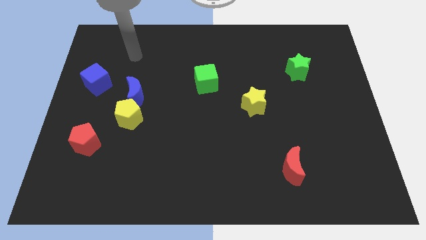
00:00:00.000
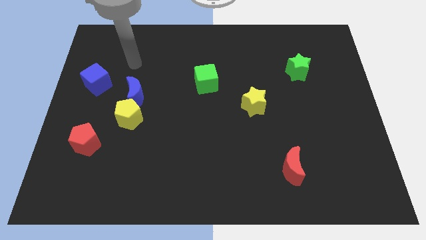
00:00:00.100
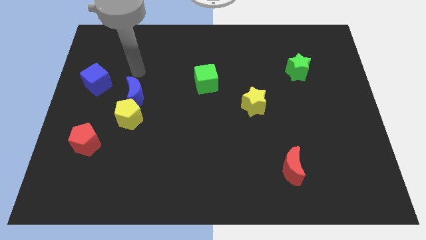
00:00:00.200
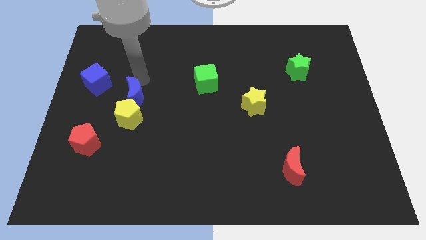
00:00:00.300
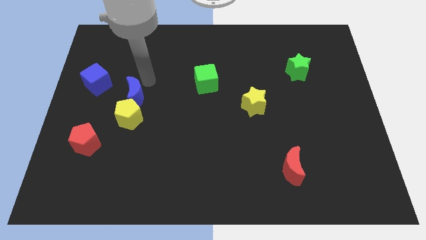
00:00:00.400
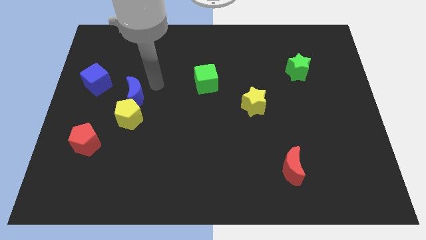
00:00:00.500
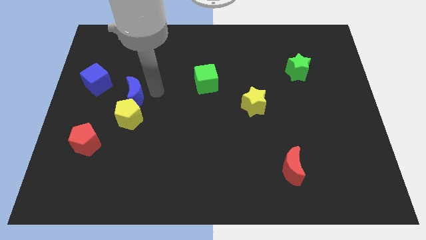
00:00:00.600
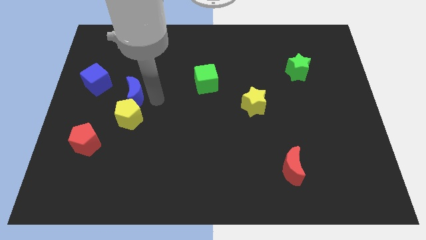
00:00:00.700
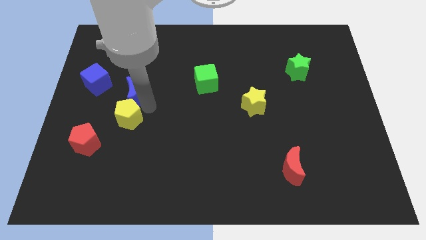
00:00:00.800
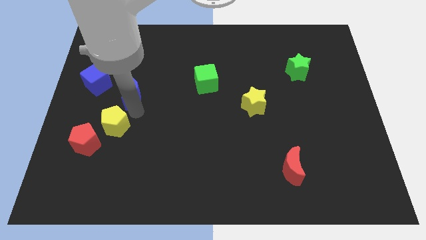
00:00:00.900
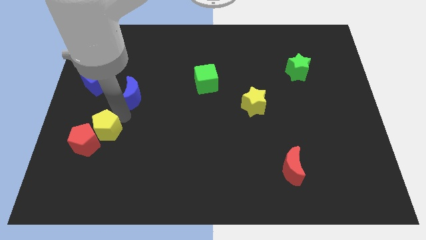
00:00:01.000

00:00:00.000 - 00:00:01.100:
pull the blue moon apart from the yellow pentagon

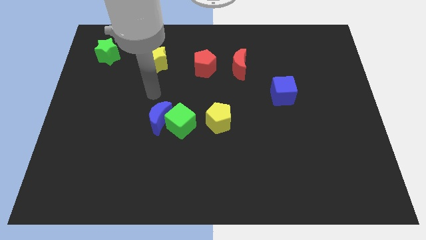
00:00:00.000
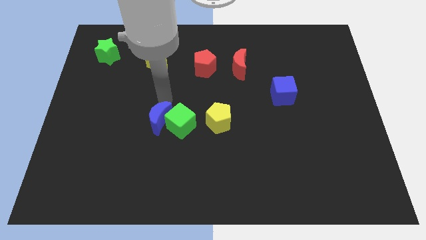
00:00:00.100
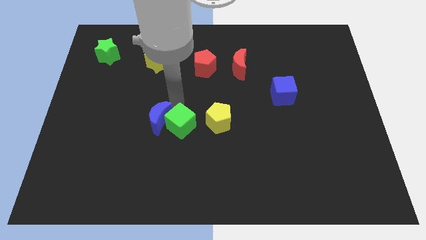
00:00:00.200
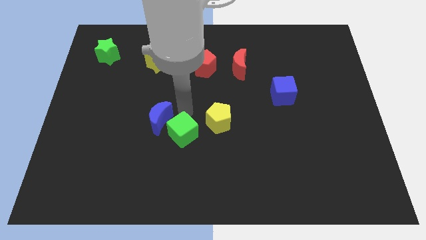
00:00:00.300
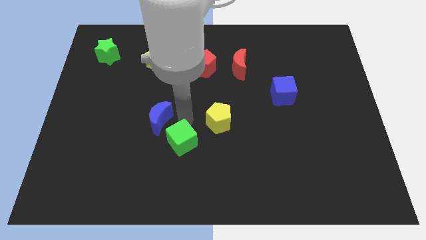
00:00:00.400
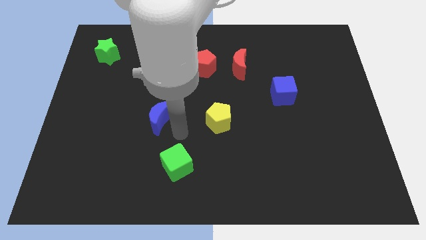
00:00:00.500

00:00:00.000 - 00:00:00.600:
pull the blue moon apart from the green cube

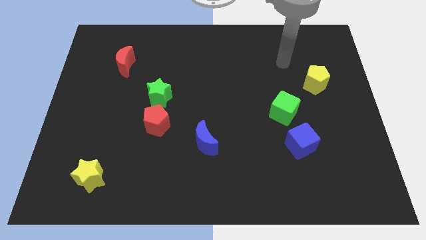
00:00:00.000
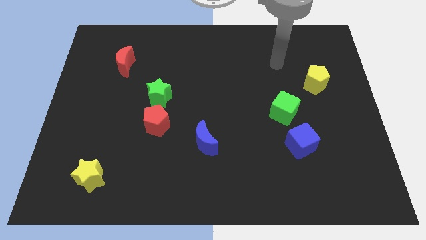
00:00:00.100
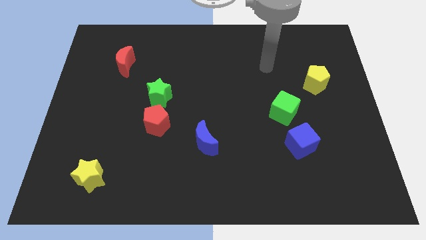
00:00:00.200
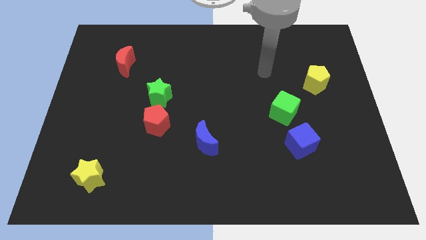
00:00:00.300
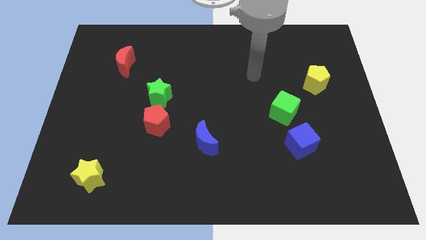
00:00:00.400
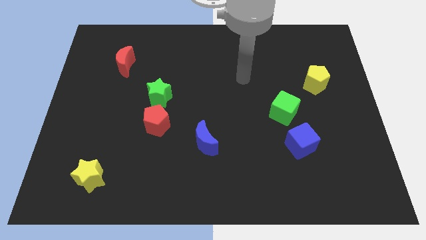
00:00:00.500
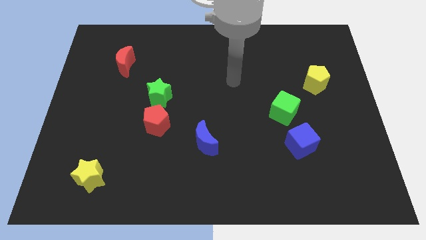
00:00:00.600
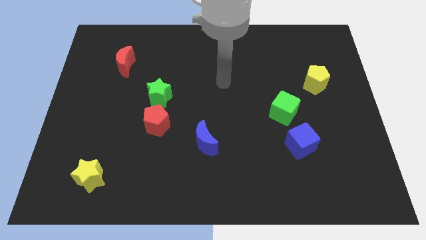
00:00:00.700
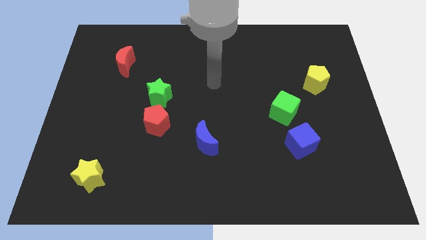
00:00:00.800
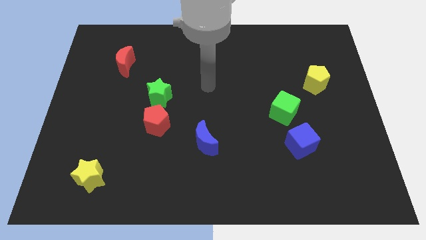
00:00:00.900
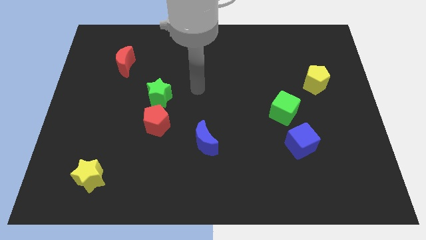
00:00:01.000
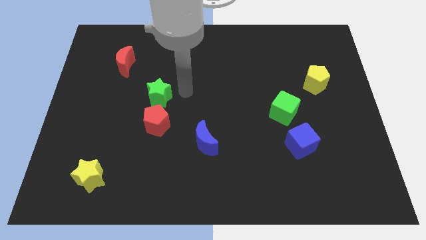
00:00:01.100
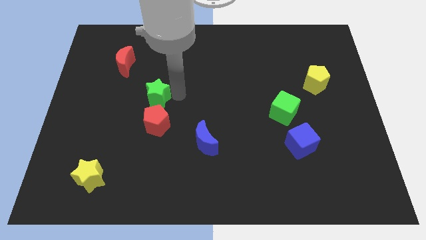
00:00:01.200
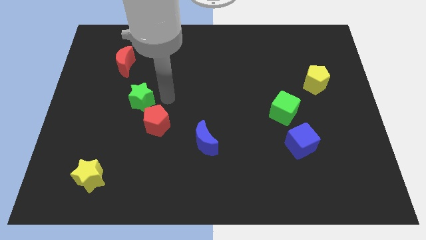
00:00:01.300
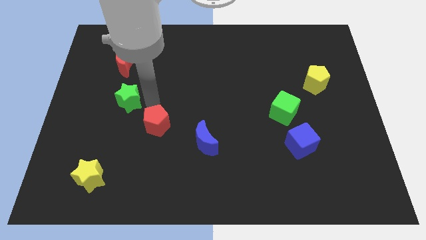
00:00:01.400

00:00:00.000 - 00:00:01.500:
move the red pentagon away from the green star

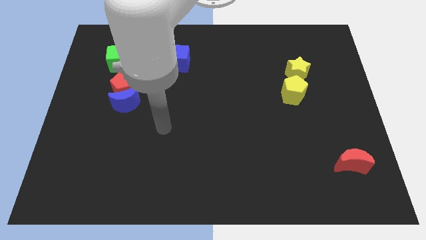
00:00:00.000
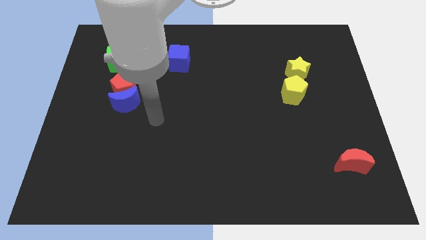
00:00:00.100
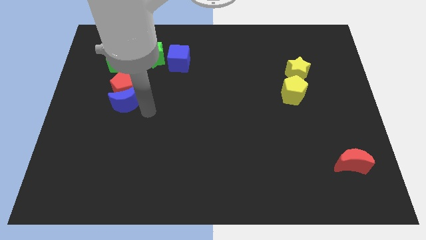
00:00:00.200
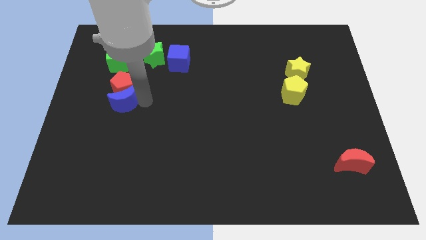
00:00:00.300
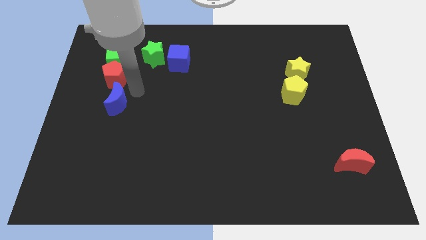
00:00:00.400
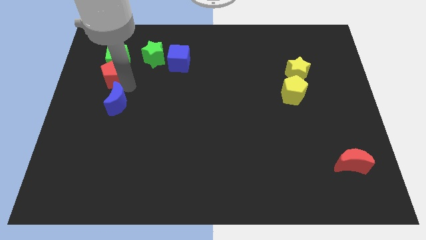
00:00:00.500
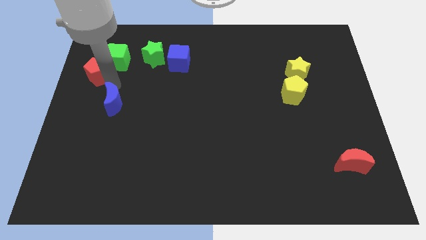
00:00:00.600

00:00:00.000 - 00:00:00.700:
move the blue moon away from the red pentagon

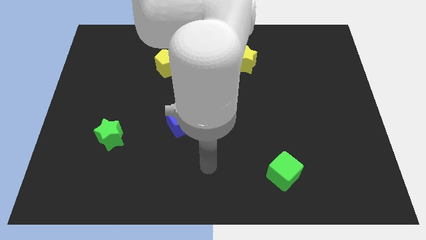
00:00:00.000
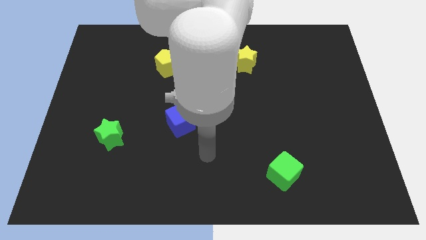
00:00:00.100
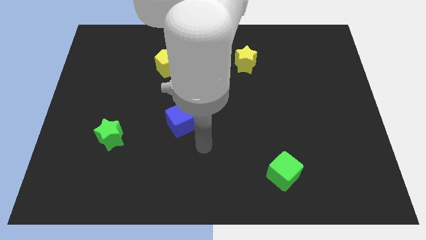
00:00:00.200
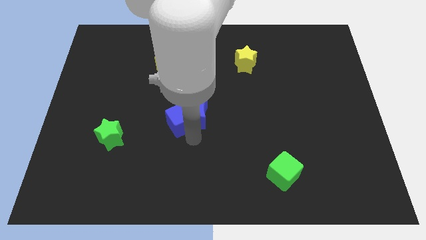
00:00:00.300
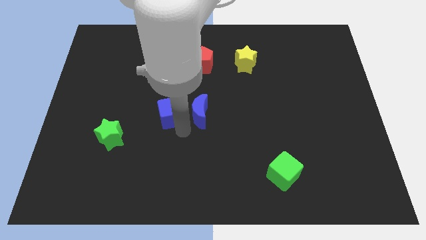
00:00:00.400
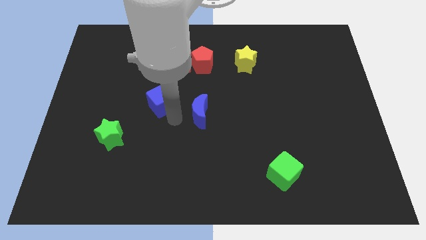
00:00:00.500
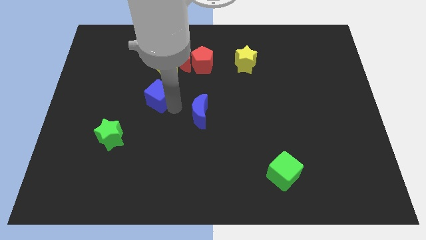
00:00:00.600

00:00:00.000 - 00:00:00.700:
move the blue moon away from the blue cube

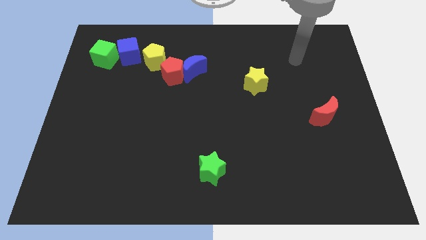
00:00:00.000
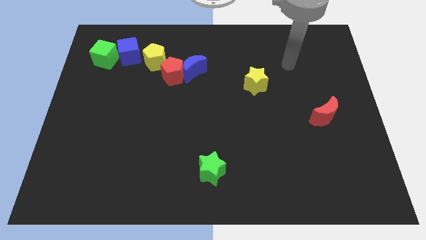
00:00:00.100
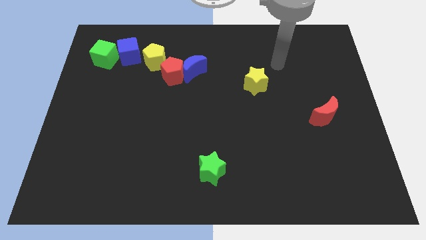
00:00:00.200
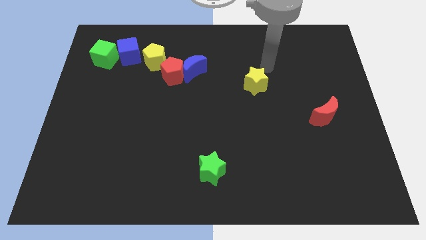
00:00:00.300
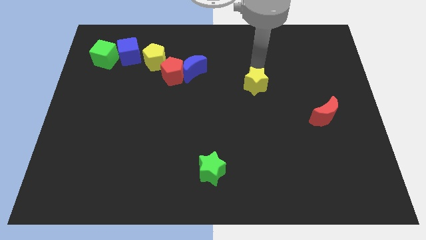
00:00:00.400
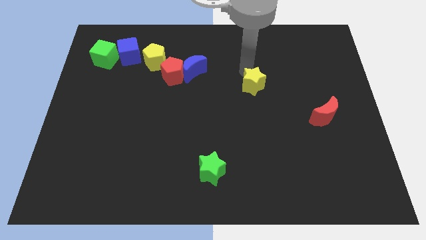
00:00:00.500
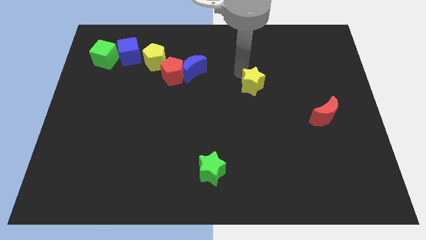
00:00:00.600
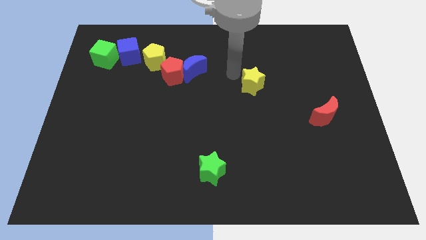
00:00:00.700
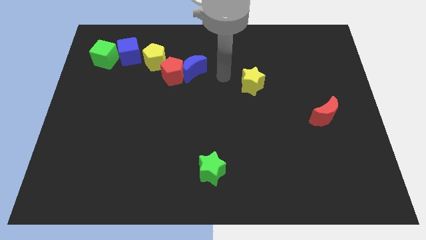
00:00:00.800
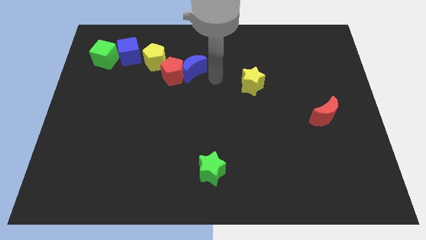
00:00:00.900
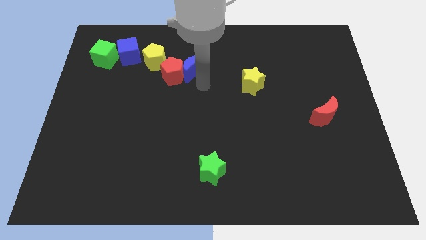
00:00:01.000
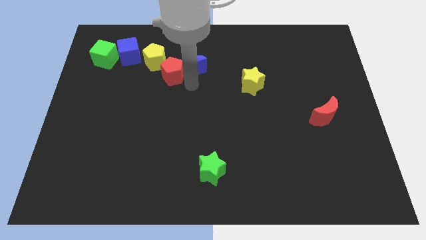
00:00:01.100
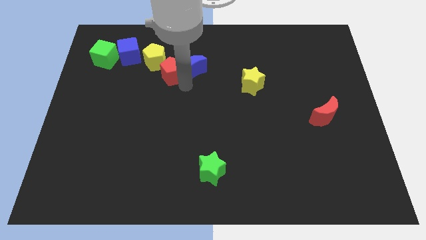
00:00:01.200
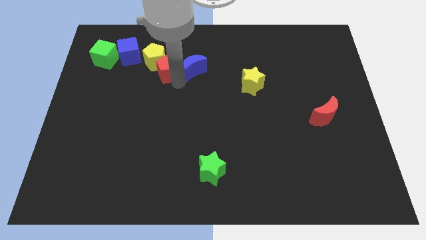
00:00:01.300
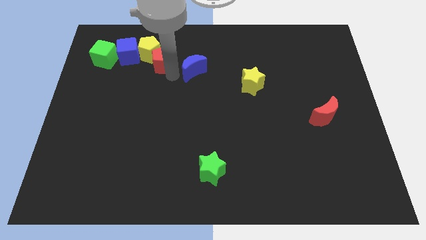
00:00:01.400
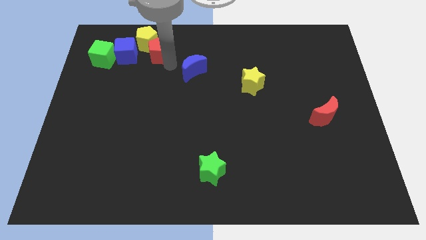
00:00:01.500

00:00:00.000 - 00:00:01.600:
pull the blue moon apart from the red pentagon

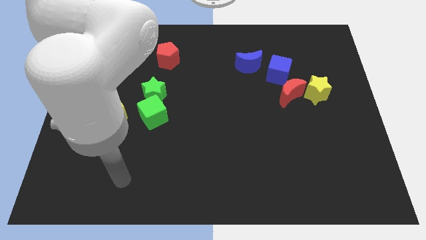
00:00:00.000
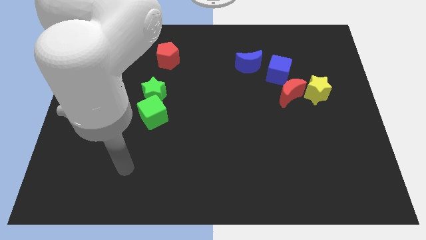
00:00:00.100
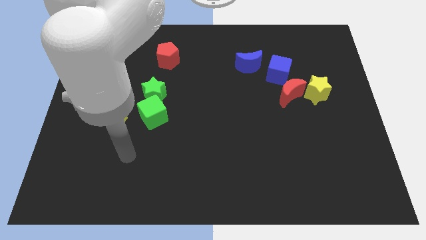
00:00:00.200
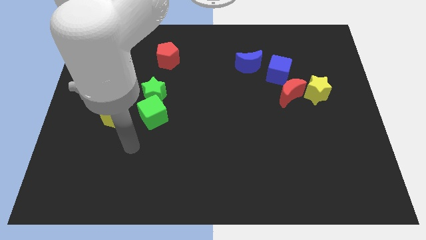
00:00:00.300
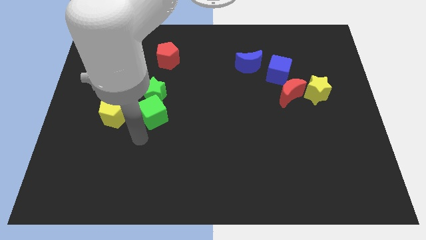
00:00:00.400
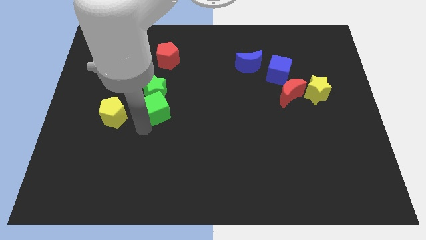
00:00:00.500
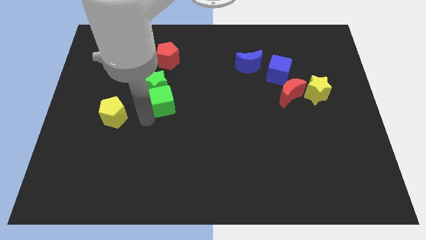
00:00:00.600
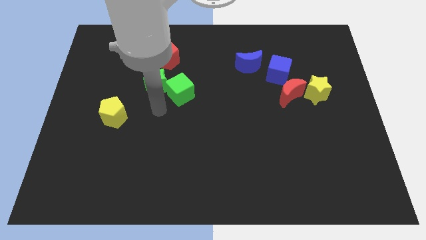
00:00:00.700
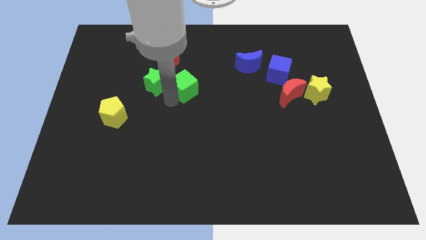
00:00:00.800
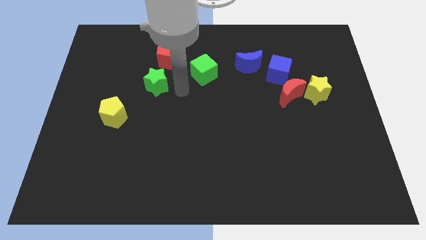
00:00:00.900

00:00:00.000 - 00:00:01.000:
pull the green star apart from the green cube

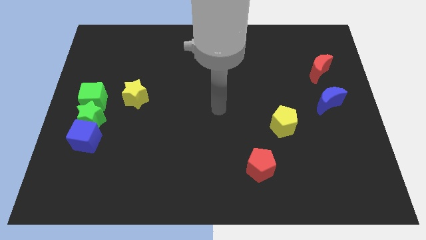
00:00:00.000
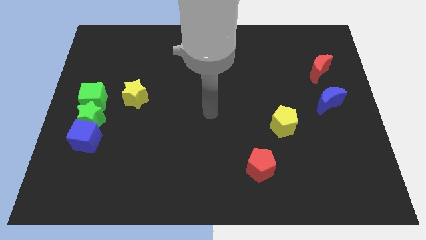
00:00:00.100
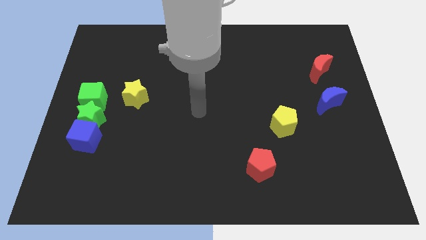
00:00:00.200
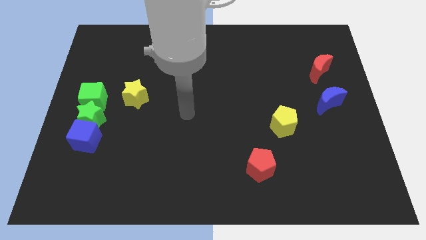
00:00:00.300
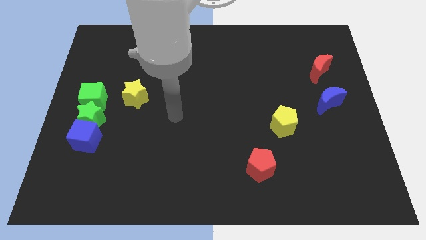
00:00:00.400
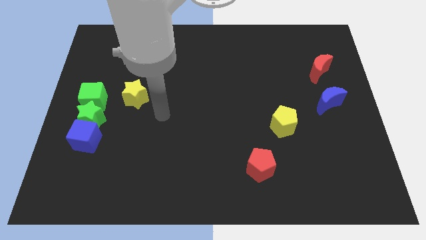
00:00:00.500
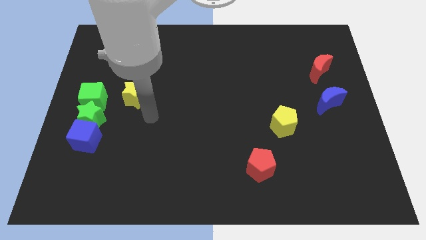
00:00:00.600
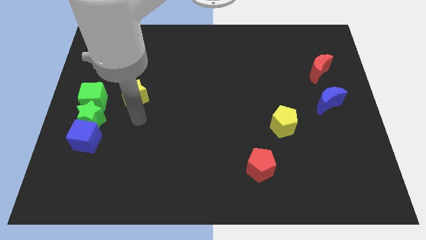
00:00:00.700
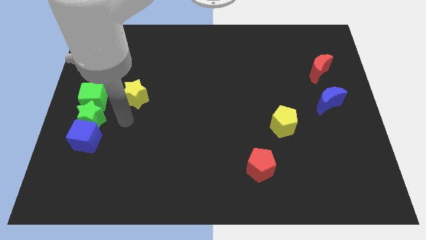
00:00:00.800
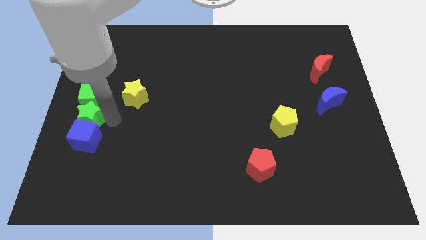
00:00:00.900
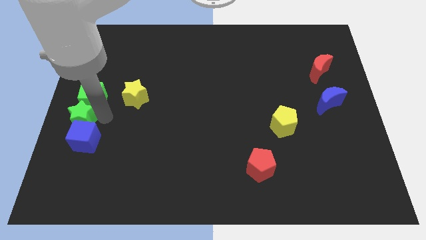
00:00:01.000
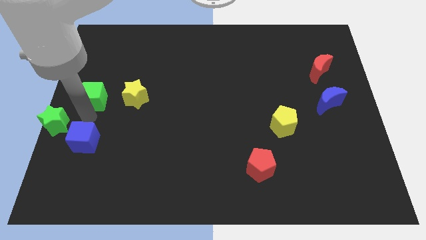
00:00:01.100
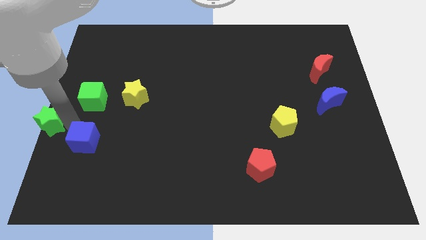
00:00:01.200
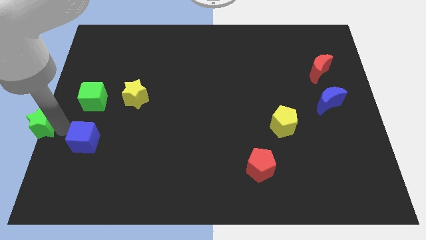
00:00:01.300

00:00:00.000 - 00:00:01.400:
pull the blue cube apart from the green star

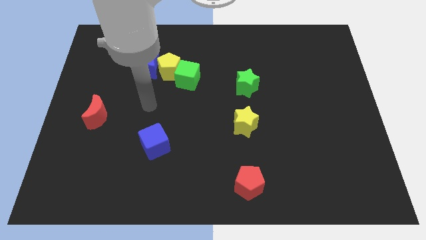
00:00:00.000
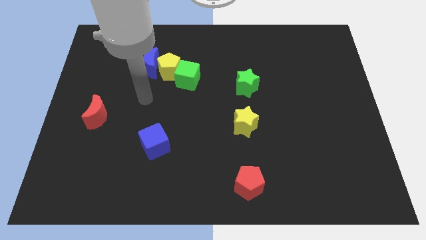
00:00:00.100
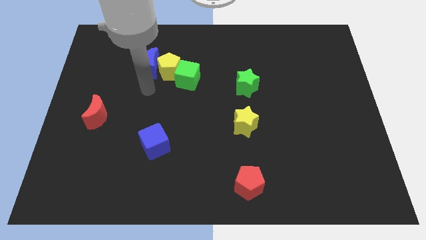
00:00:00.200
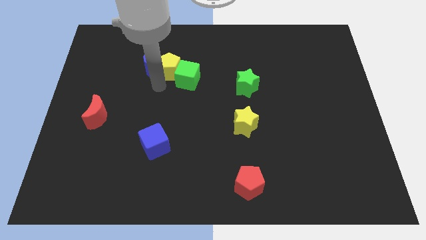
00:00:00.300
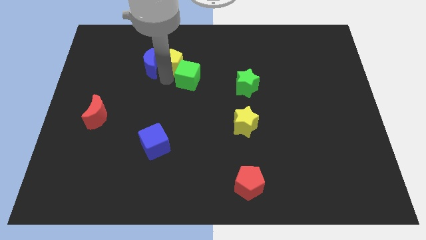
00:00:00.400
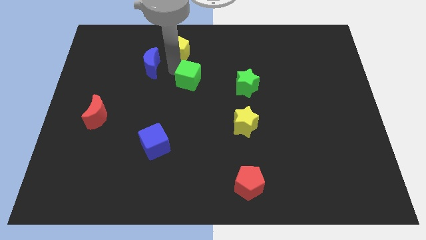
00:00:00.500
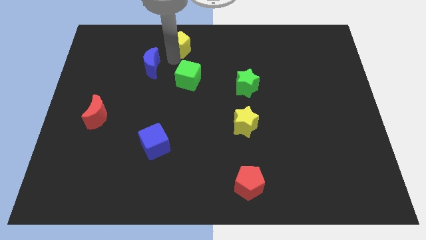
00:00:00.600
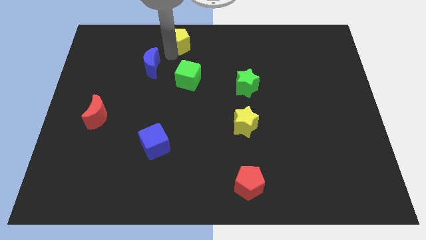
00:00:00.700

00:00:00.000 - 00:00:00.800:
move the blue moon away from the yellow pentagon

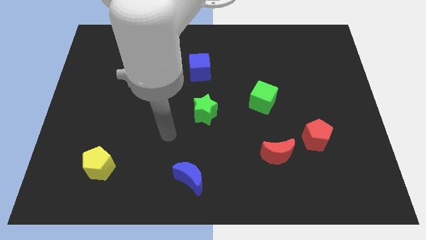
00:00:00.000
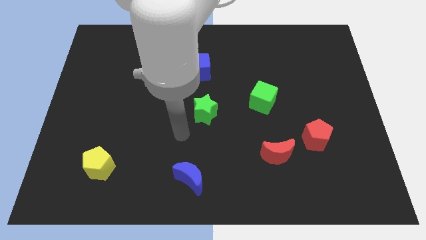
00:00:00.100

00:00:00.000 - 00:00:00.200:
pull the red moon apart from the red pentagon
